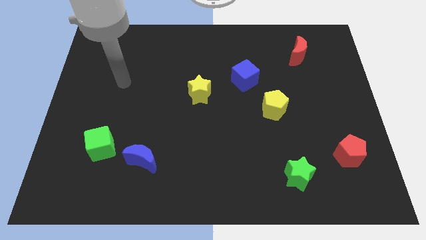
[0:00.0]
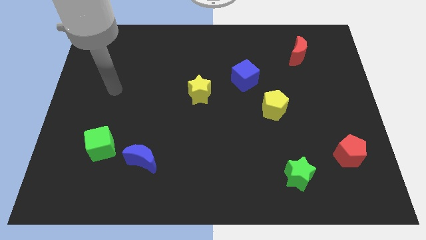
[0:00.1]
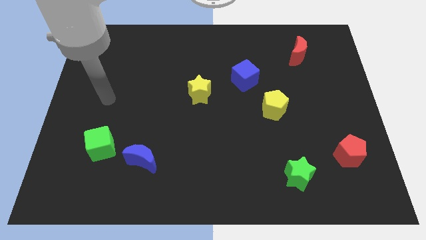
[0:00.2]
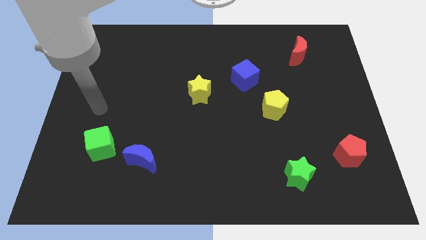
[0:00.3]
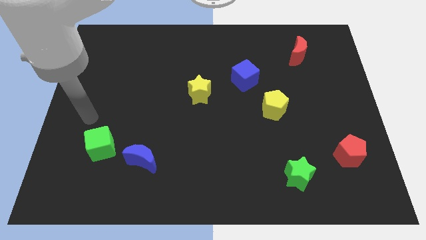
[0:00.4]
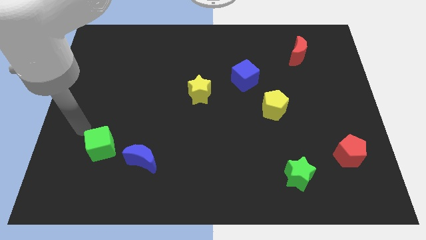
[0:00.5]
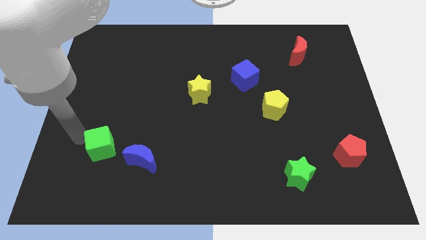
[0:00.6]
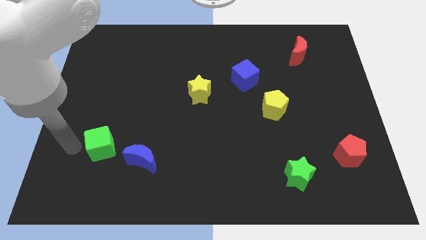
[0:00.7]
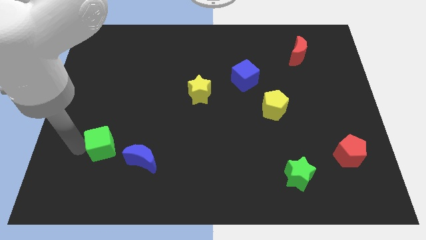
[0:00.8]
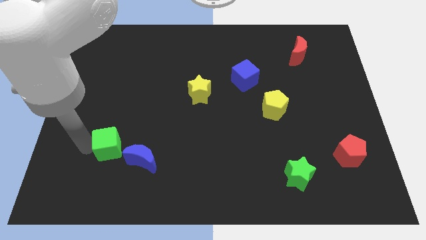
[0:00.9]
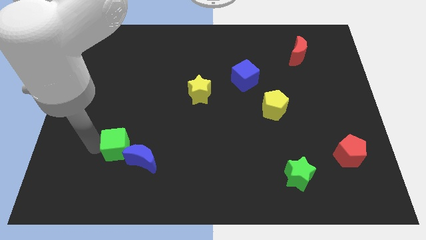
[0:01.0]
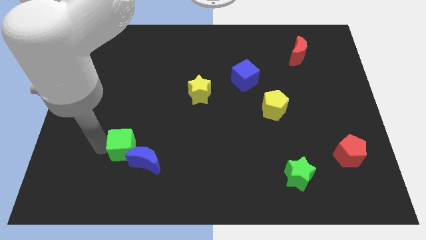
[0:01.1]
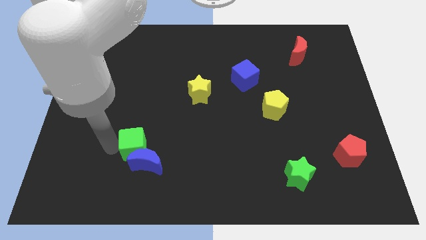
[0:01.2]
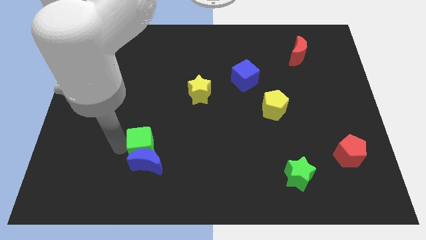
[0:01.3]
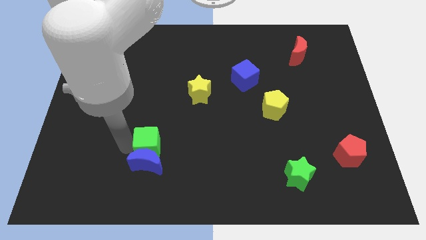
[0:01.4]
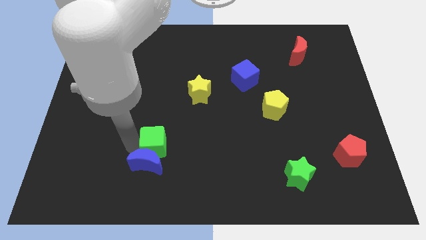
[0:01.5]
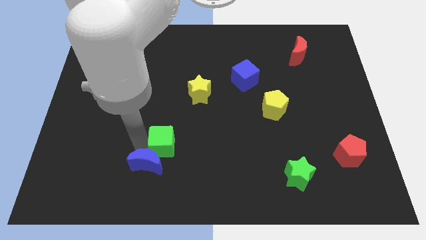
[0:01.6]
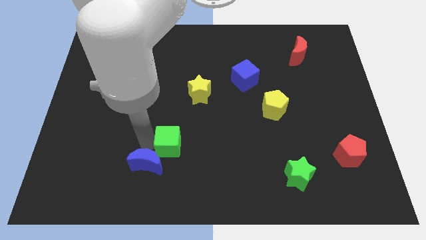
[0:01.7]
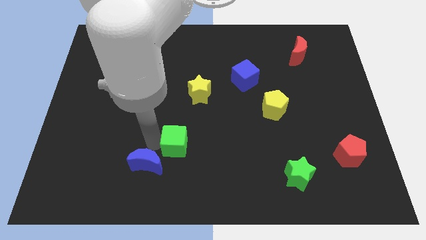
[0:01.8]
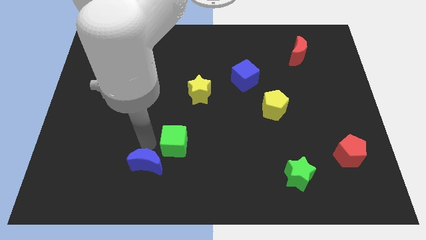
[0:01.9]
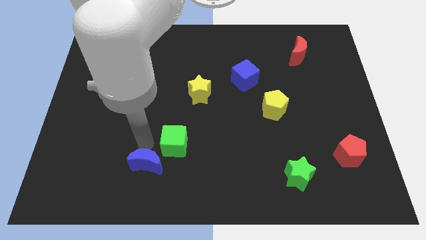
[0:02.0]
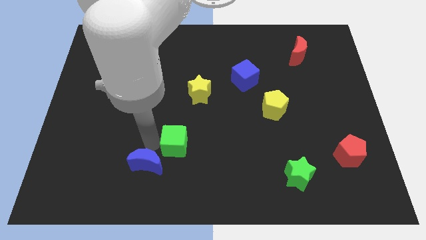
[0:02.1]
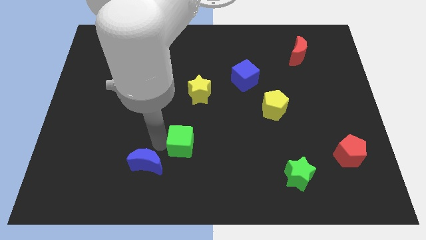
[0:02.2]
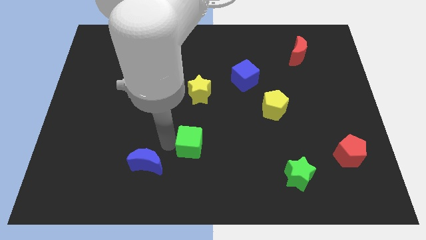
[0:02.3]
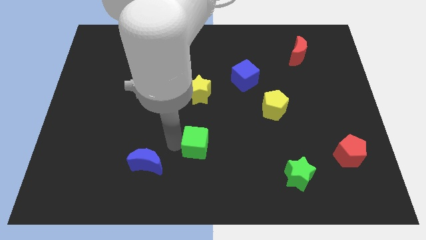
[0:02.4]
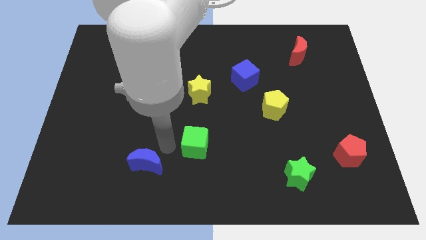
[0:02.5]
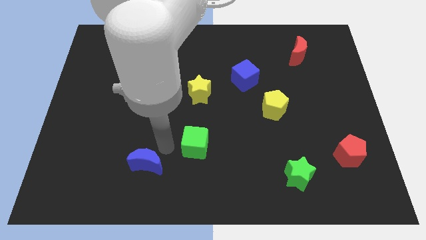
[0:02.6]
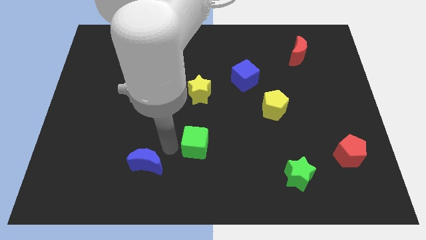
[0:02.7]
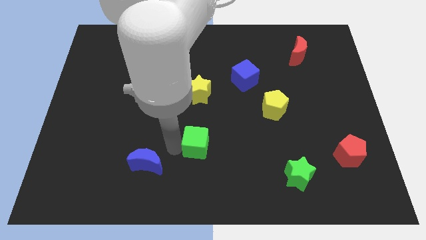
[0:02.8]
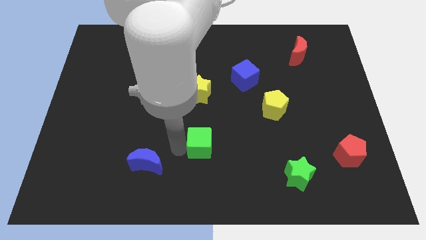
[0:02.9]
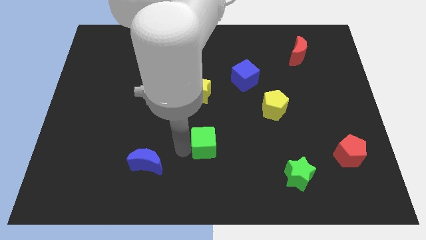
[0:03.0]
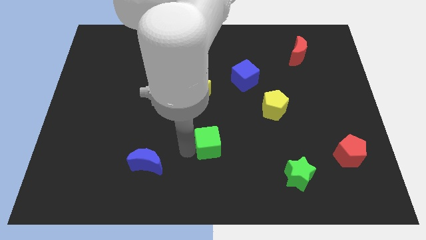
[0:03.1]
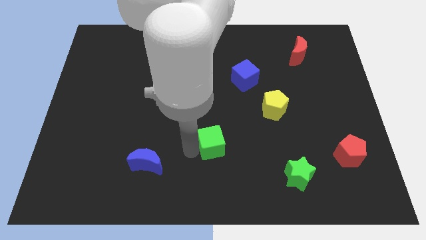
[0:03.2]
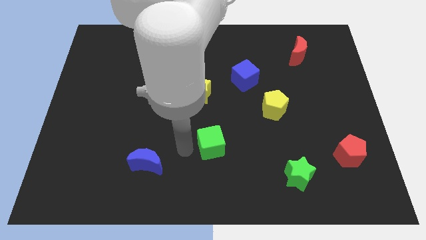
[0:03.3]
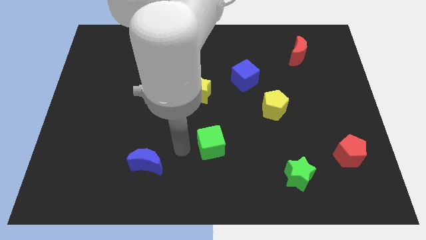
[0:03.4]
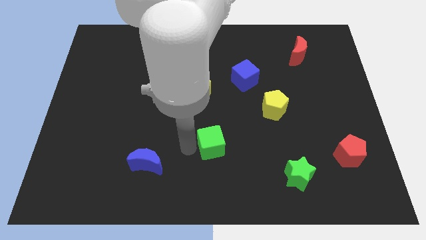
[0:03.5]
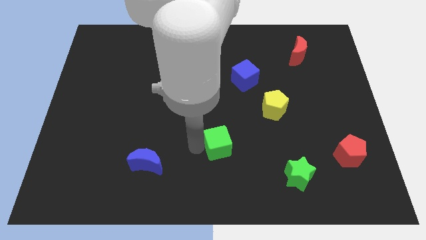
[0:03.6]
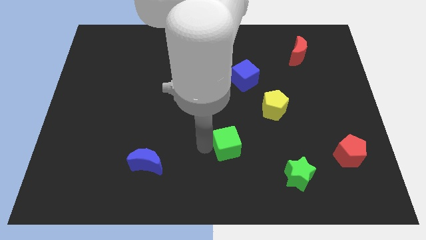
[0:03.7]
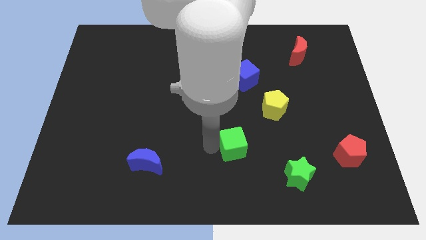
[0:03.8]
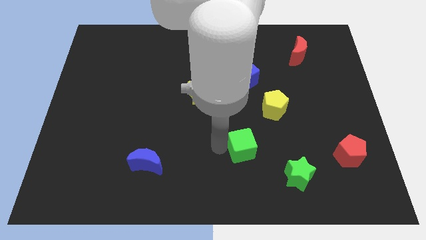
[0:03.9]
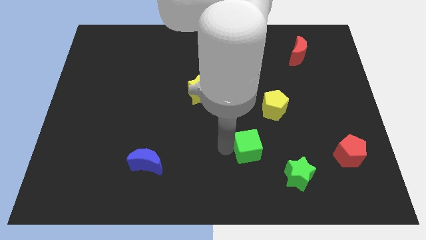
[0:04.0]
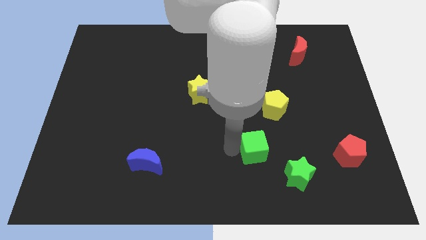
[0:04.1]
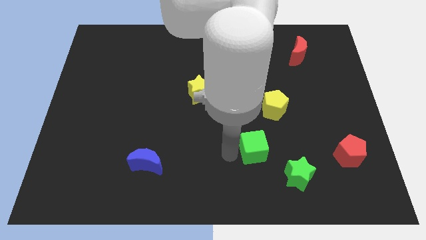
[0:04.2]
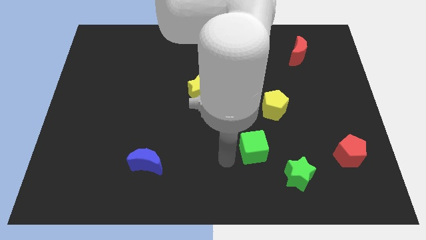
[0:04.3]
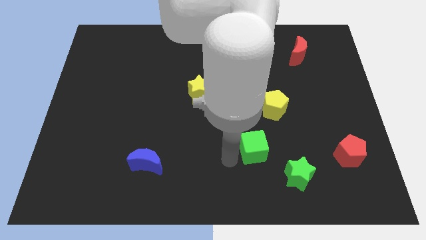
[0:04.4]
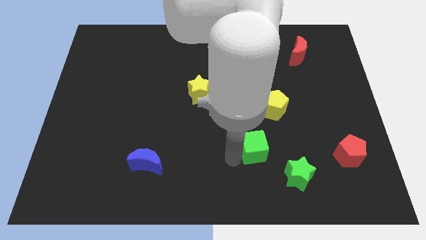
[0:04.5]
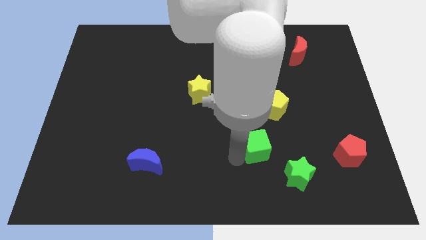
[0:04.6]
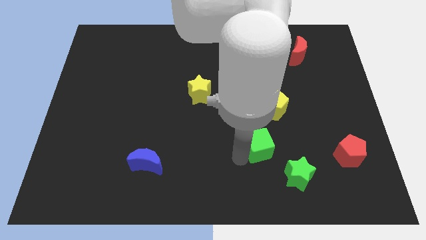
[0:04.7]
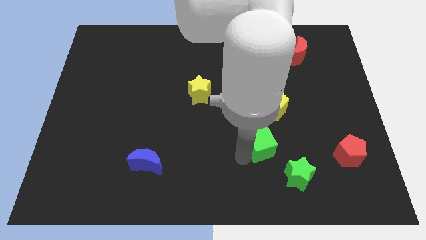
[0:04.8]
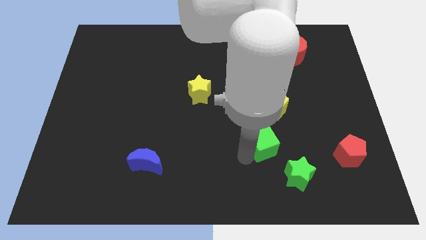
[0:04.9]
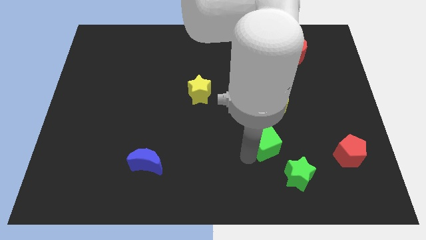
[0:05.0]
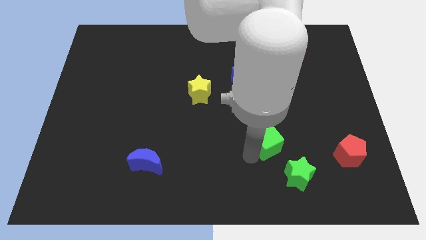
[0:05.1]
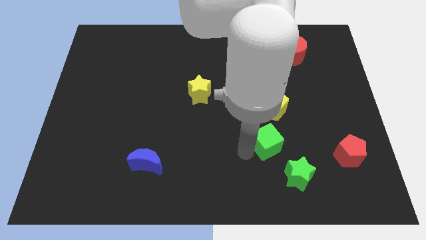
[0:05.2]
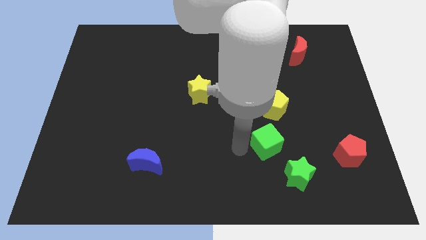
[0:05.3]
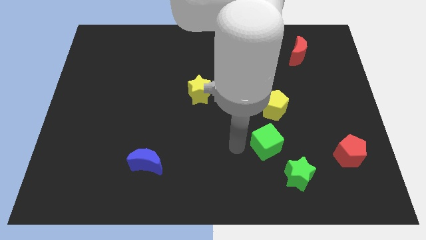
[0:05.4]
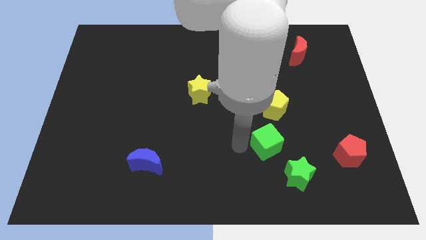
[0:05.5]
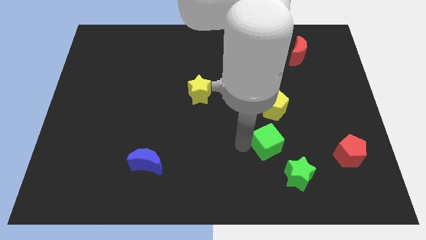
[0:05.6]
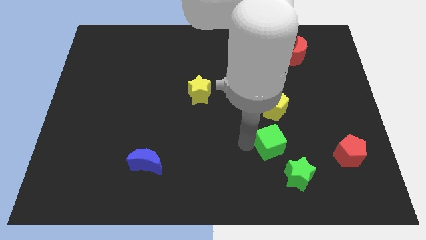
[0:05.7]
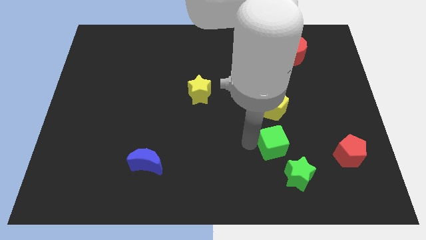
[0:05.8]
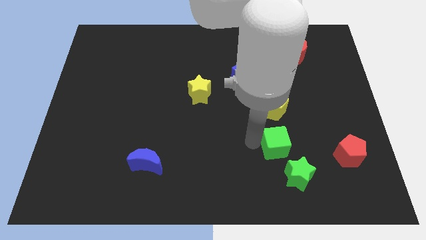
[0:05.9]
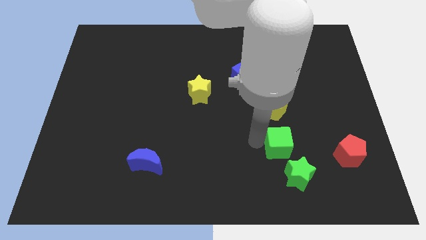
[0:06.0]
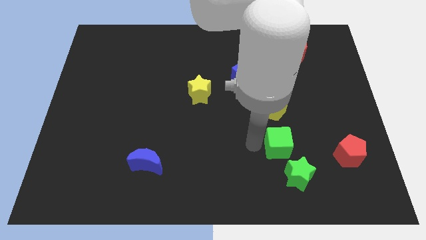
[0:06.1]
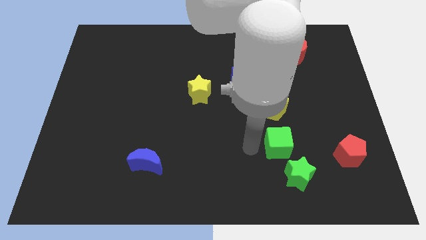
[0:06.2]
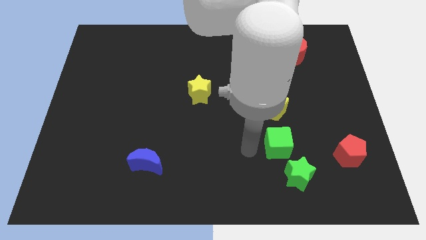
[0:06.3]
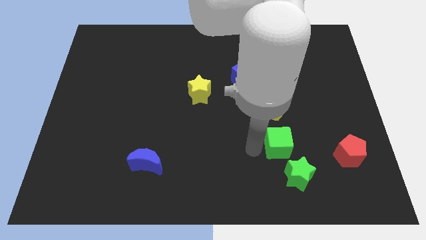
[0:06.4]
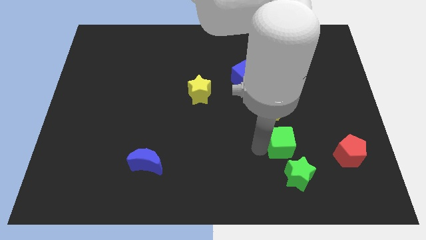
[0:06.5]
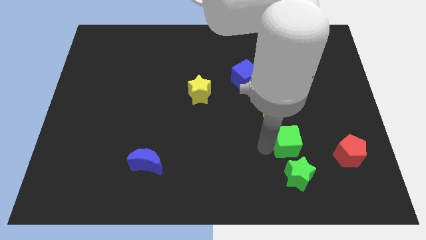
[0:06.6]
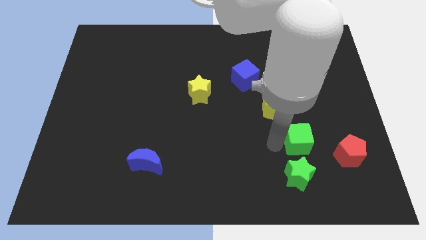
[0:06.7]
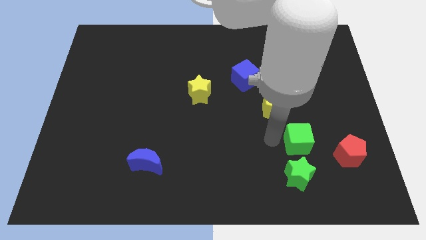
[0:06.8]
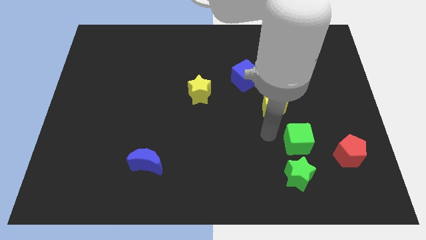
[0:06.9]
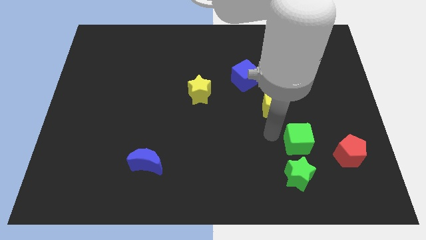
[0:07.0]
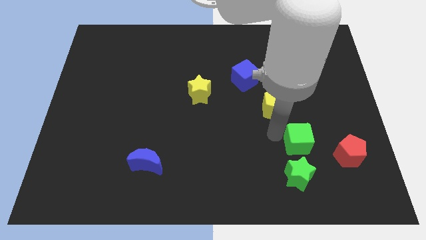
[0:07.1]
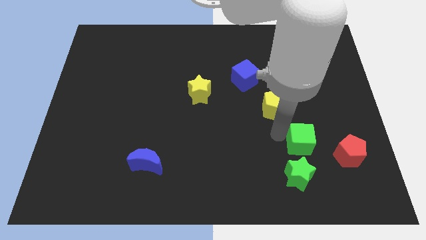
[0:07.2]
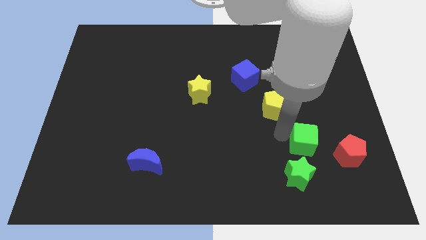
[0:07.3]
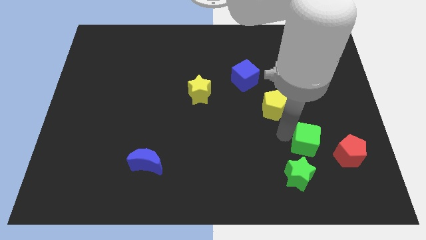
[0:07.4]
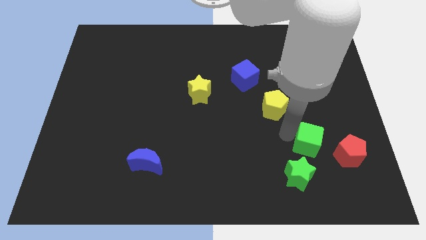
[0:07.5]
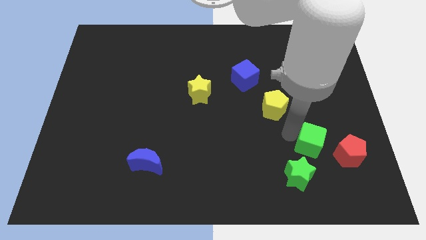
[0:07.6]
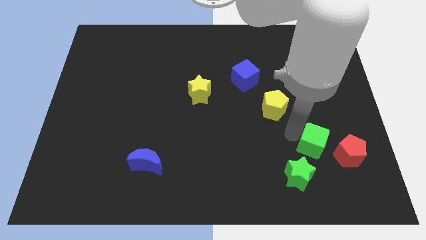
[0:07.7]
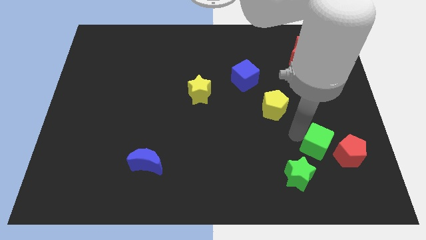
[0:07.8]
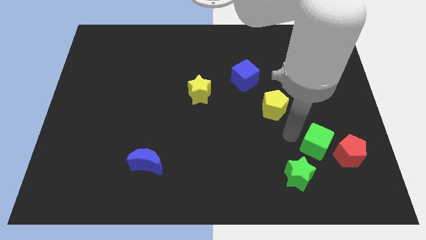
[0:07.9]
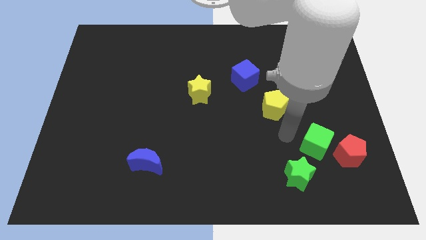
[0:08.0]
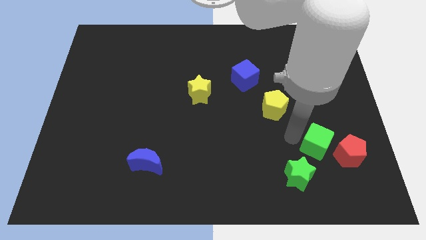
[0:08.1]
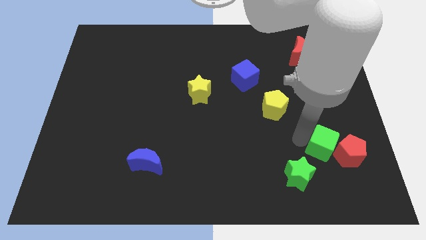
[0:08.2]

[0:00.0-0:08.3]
push the green cube next to the red pentagon
